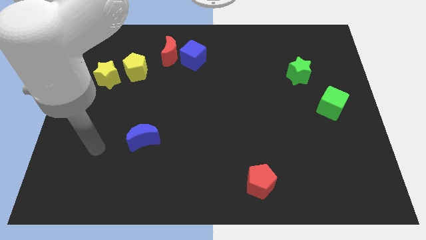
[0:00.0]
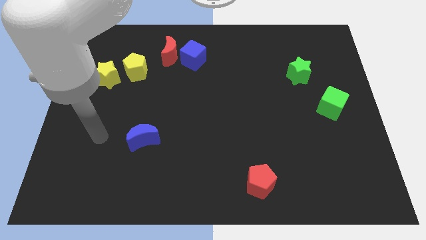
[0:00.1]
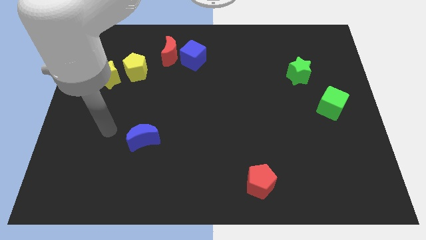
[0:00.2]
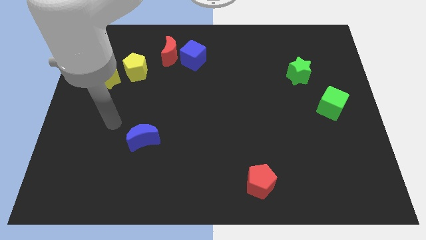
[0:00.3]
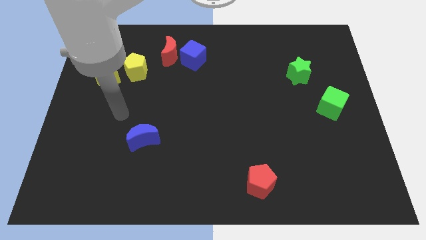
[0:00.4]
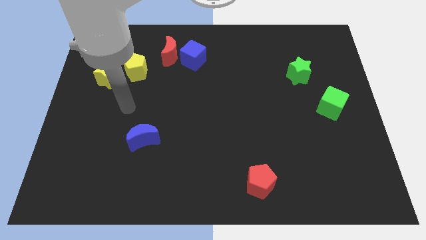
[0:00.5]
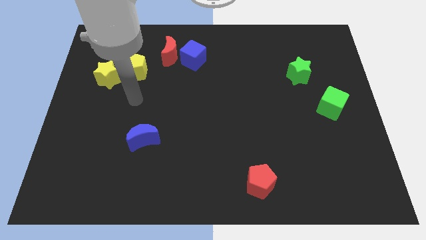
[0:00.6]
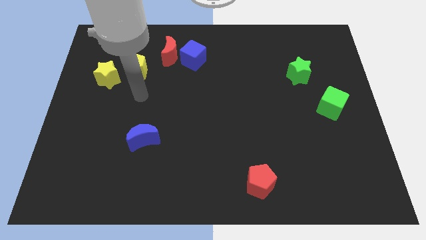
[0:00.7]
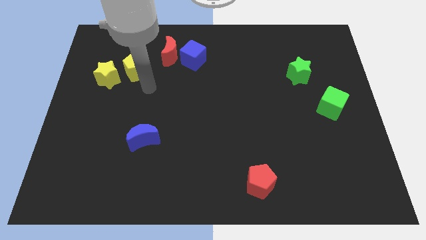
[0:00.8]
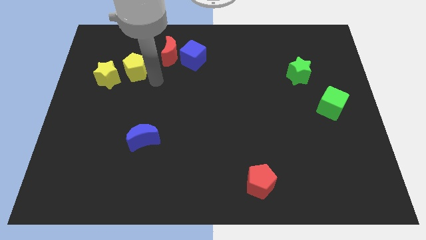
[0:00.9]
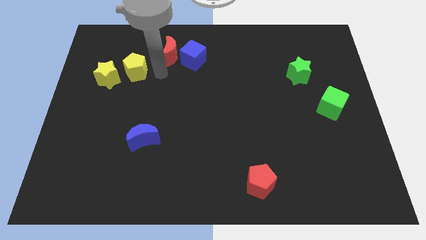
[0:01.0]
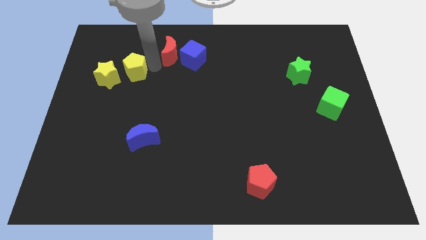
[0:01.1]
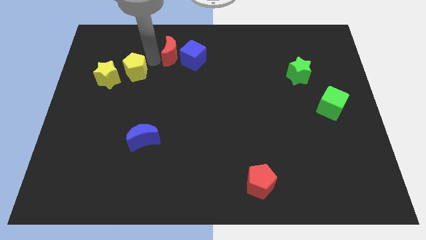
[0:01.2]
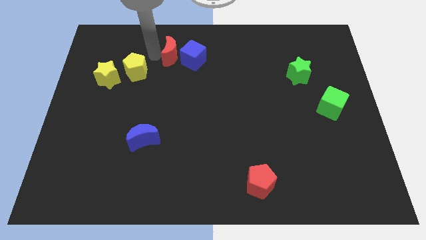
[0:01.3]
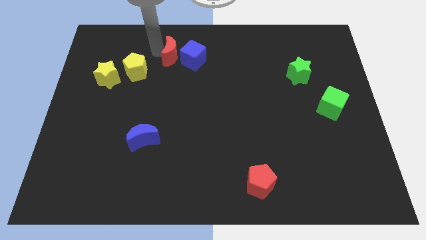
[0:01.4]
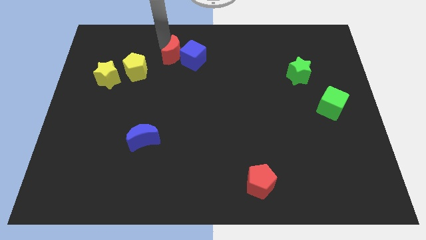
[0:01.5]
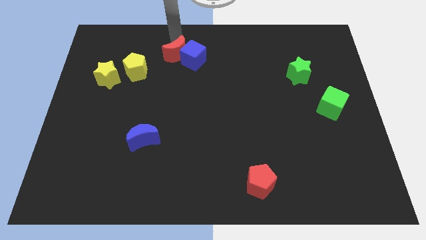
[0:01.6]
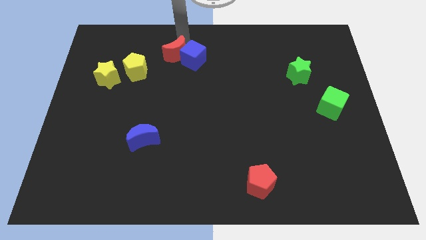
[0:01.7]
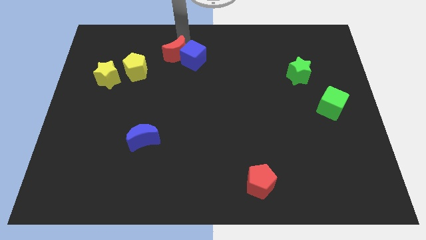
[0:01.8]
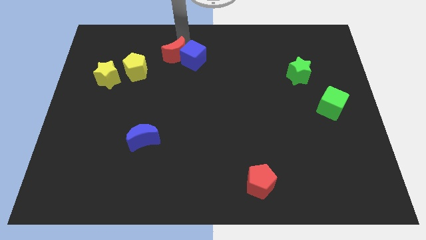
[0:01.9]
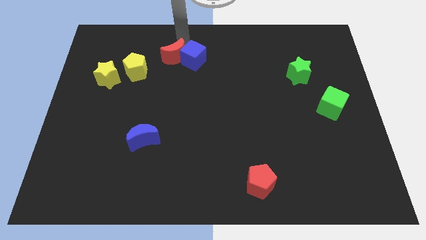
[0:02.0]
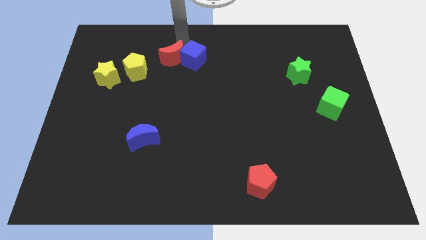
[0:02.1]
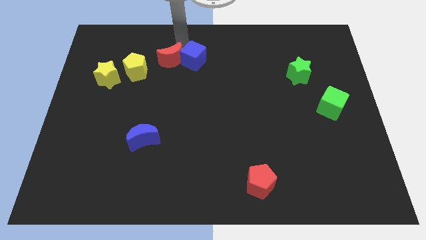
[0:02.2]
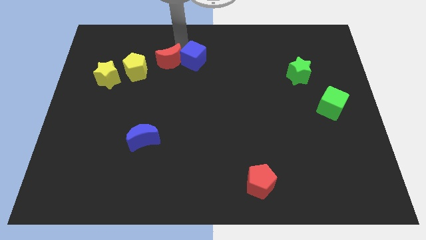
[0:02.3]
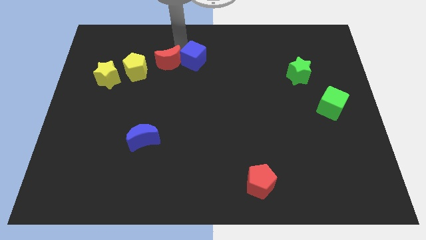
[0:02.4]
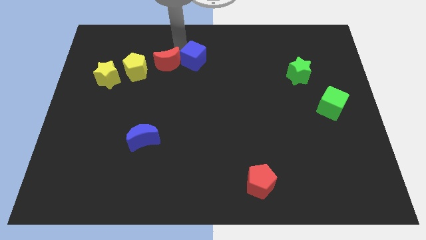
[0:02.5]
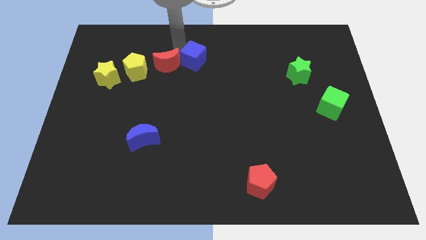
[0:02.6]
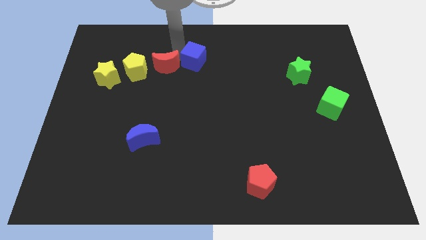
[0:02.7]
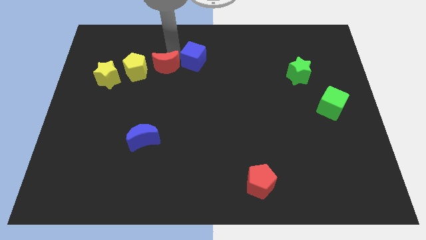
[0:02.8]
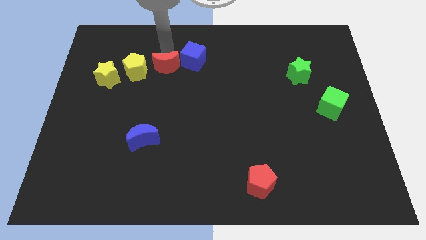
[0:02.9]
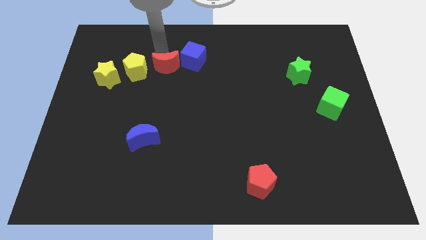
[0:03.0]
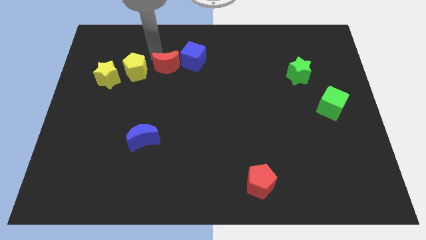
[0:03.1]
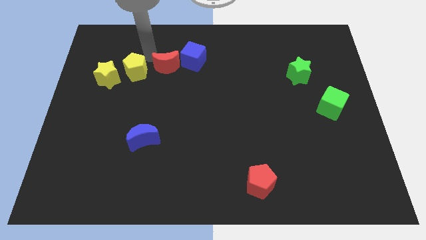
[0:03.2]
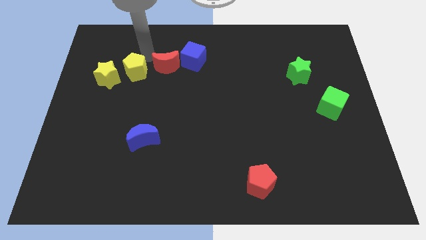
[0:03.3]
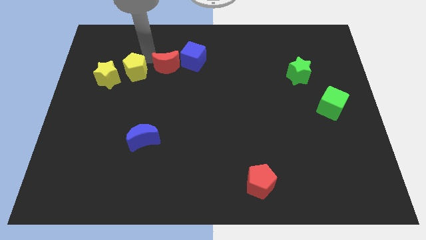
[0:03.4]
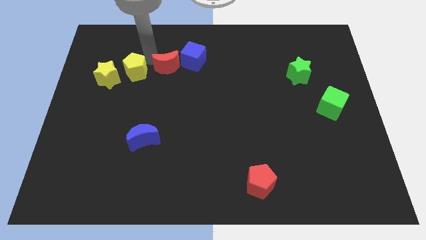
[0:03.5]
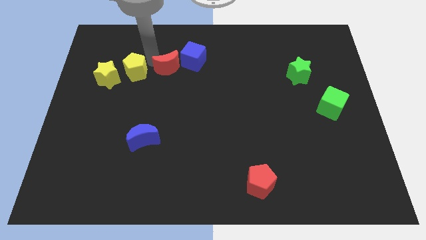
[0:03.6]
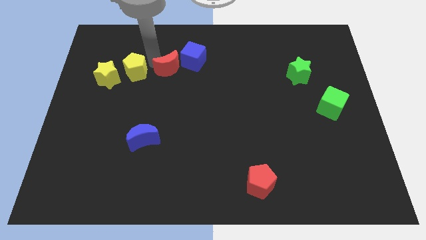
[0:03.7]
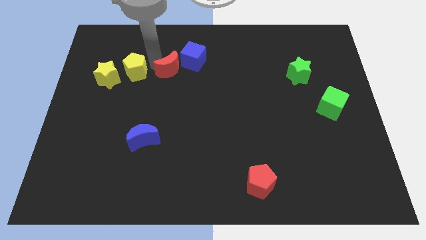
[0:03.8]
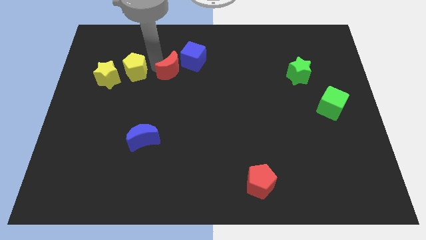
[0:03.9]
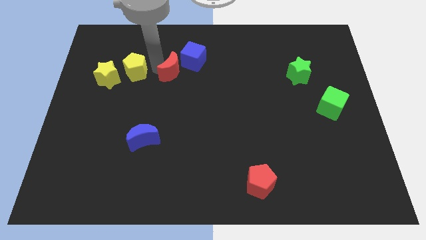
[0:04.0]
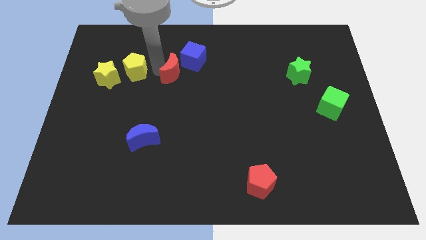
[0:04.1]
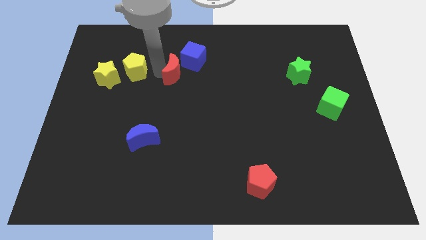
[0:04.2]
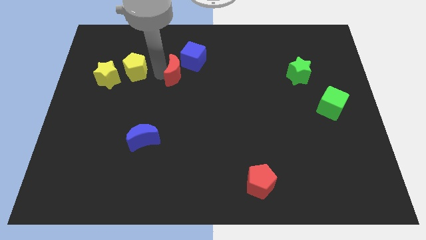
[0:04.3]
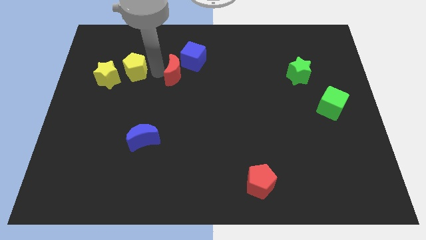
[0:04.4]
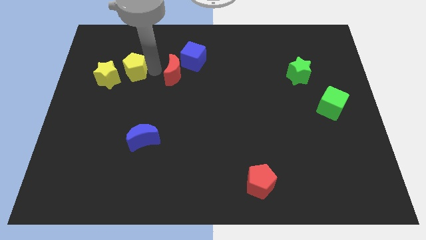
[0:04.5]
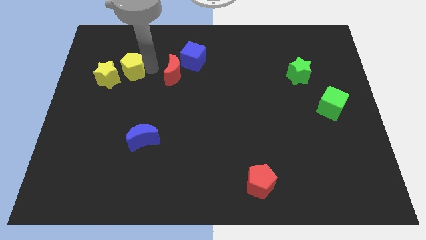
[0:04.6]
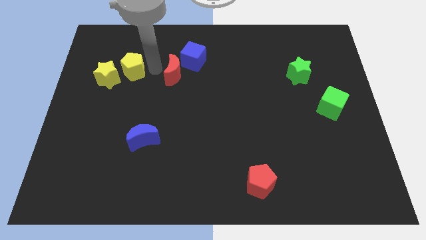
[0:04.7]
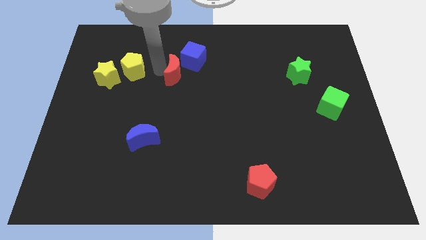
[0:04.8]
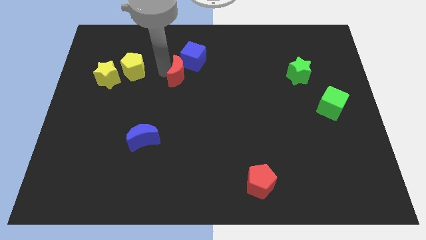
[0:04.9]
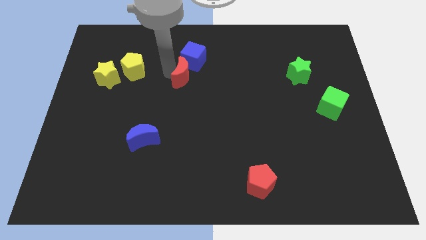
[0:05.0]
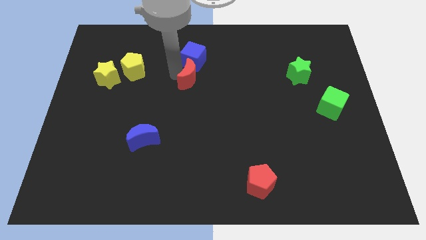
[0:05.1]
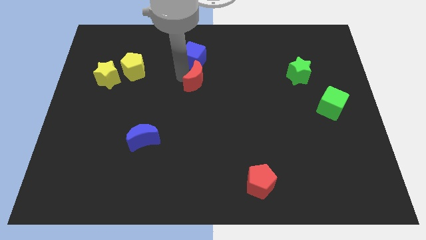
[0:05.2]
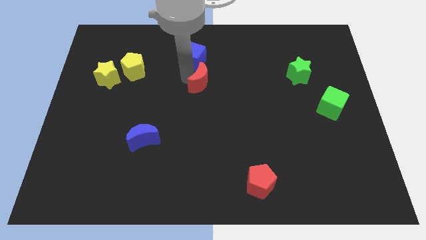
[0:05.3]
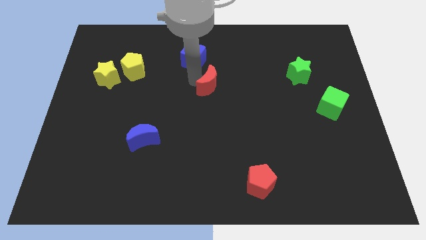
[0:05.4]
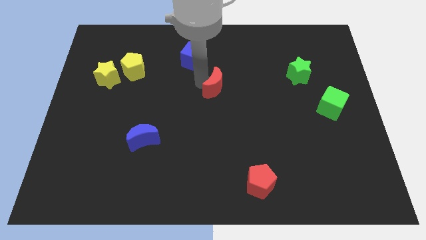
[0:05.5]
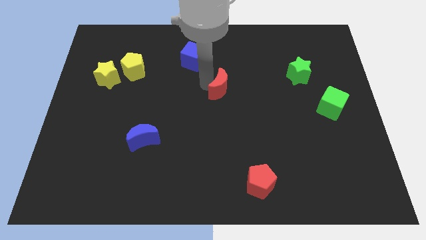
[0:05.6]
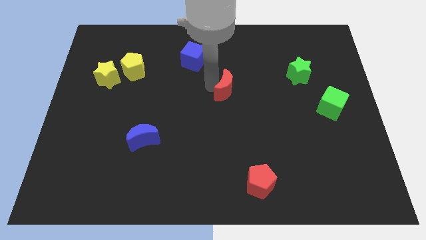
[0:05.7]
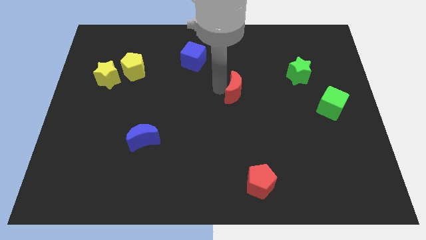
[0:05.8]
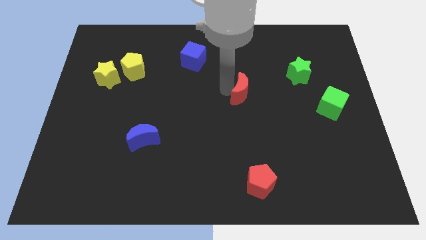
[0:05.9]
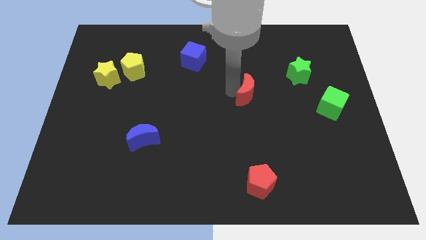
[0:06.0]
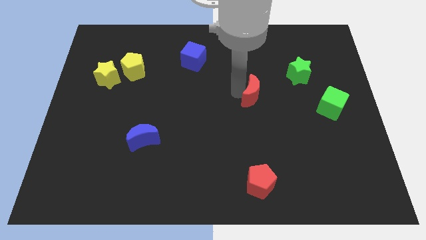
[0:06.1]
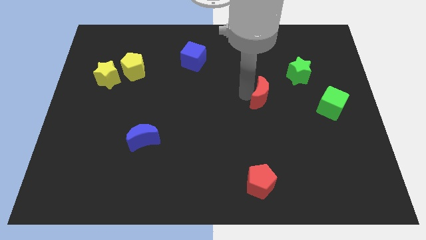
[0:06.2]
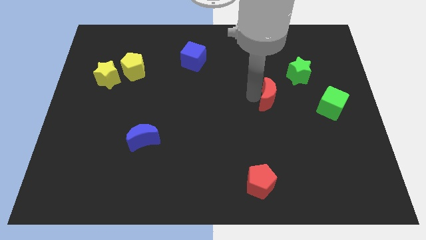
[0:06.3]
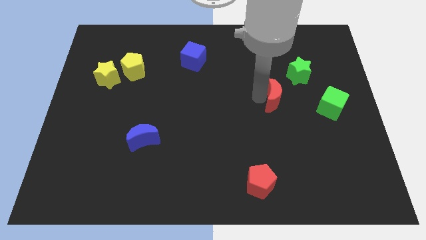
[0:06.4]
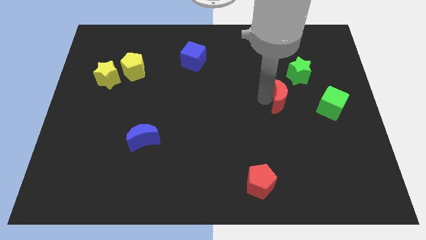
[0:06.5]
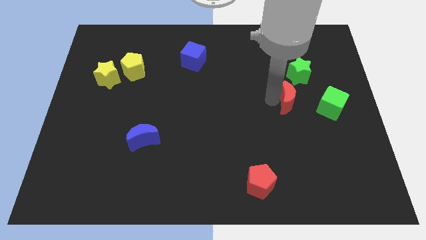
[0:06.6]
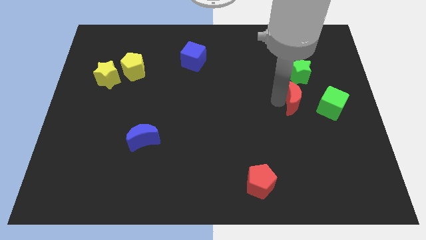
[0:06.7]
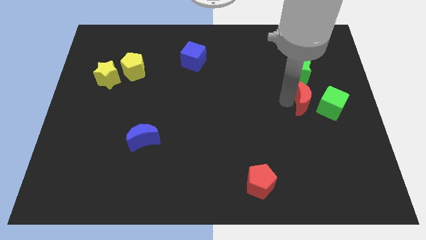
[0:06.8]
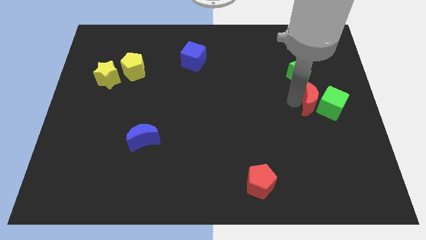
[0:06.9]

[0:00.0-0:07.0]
slide the red moon close to the green cube
